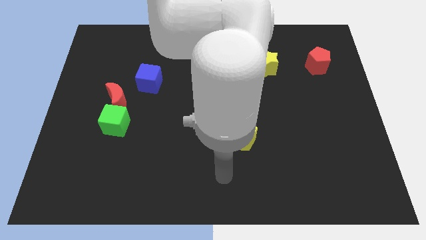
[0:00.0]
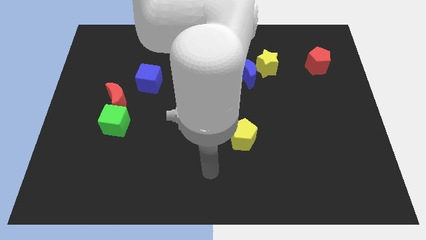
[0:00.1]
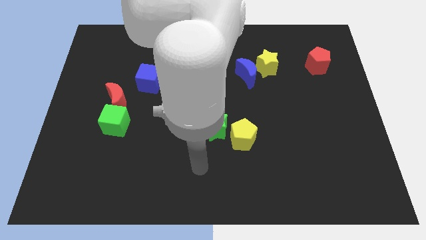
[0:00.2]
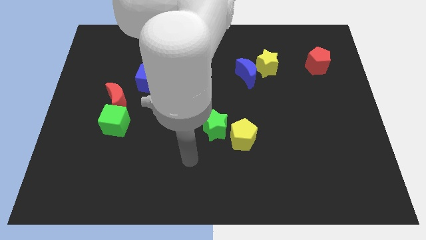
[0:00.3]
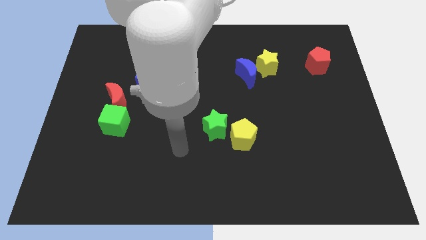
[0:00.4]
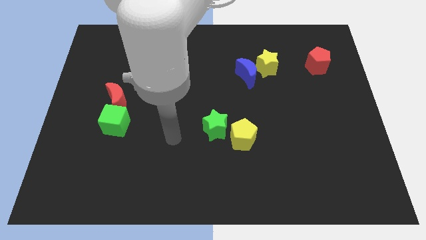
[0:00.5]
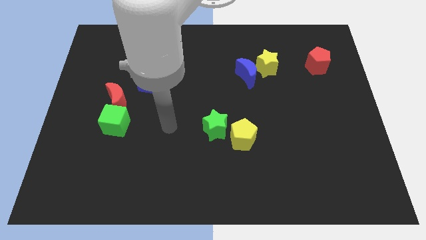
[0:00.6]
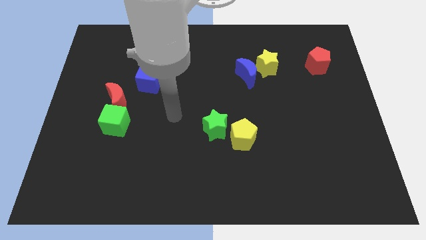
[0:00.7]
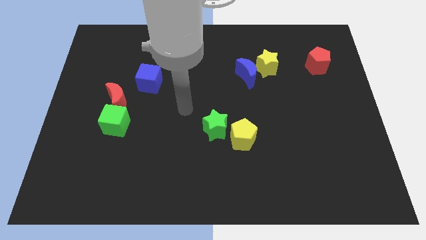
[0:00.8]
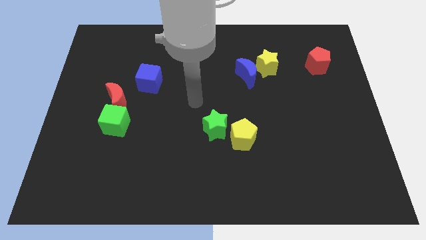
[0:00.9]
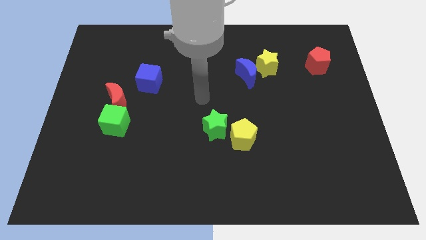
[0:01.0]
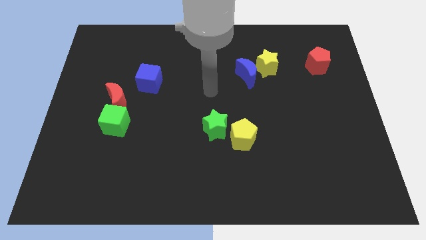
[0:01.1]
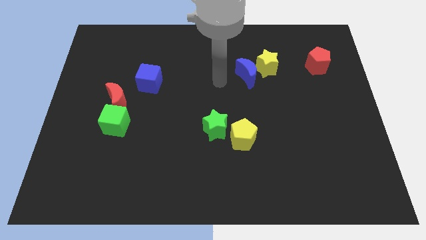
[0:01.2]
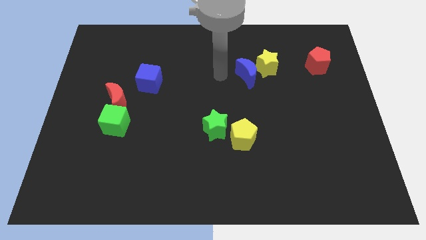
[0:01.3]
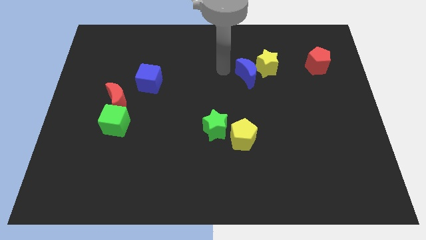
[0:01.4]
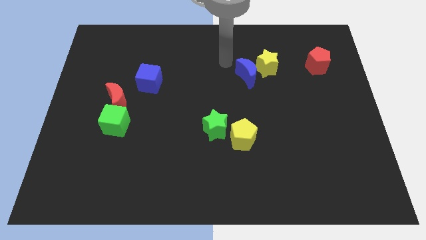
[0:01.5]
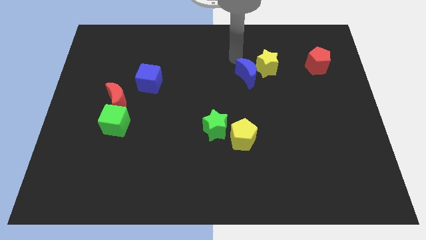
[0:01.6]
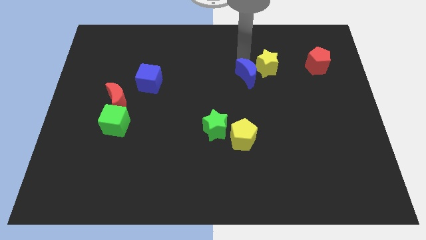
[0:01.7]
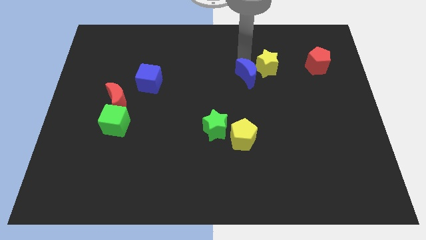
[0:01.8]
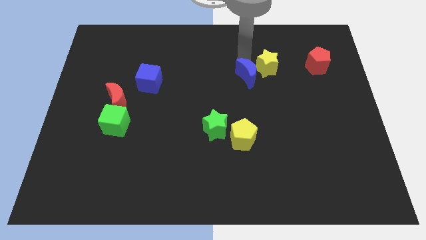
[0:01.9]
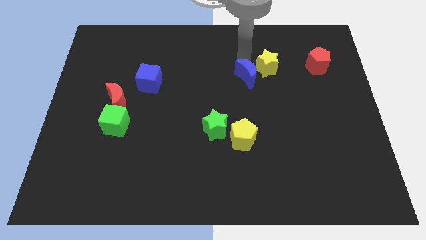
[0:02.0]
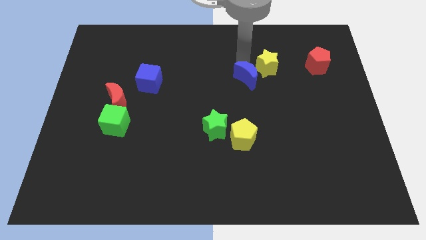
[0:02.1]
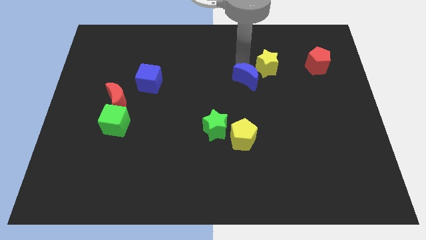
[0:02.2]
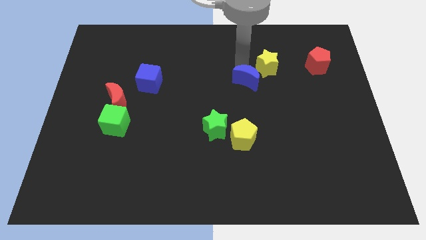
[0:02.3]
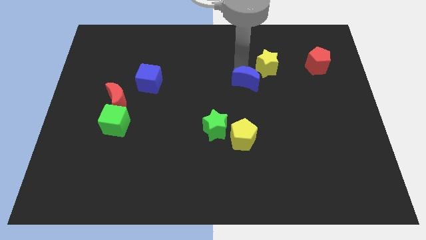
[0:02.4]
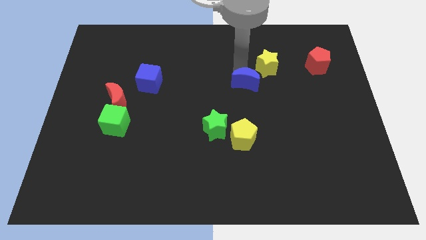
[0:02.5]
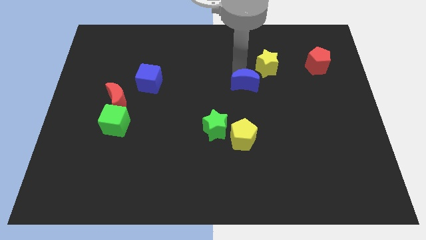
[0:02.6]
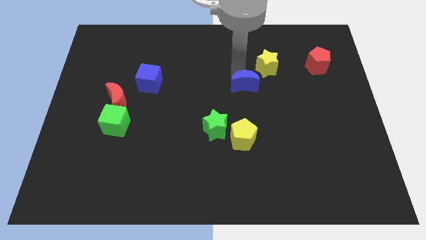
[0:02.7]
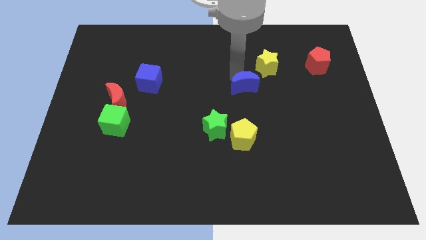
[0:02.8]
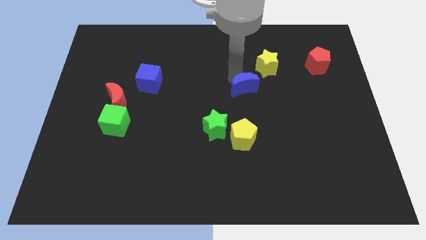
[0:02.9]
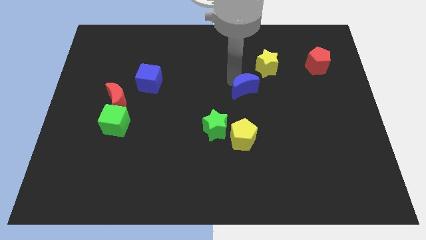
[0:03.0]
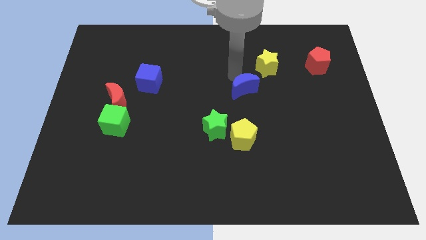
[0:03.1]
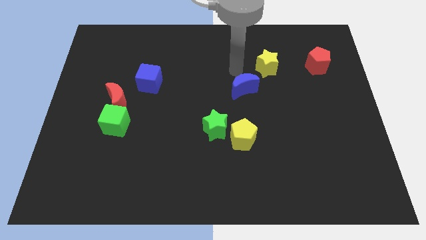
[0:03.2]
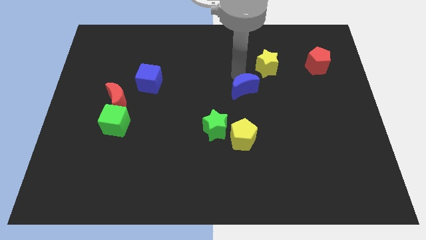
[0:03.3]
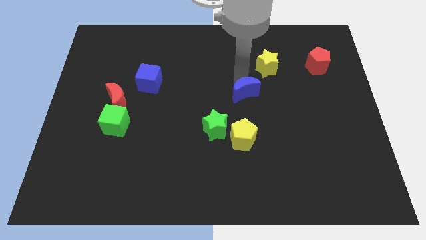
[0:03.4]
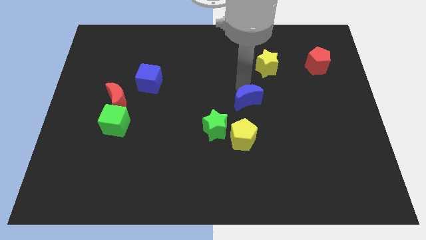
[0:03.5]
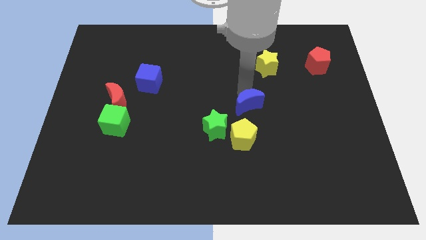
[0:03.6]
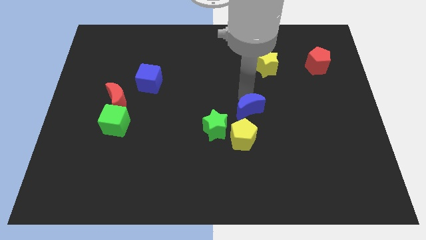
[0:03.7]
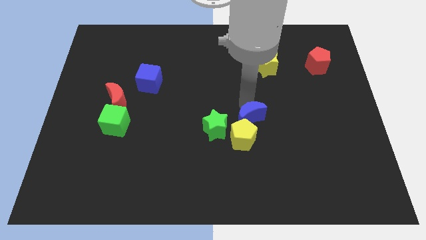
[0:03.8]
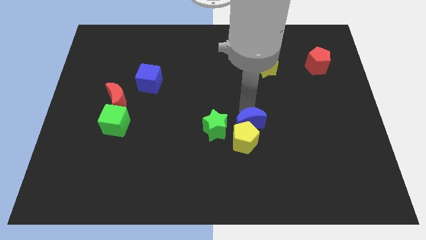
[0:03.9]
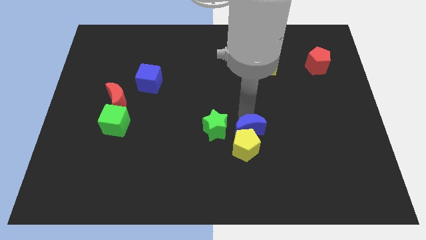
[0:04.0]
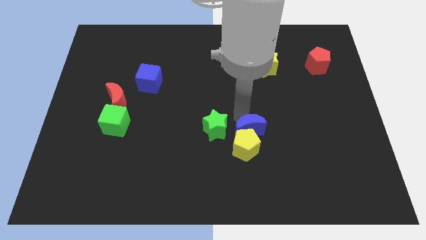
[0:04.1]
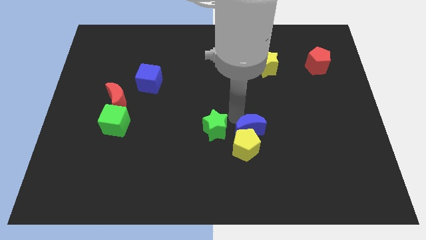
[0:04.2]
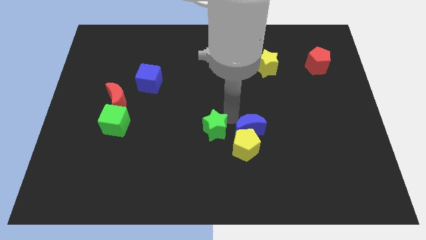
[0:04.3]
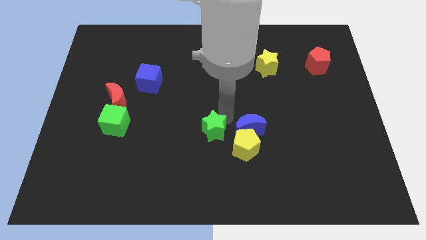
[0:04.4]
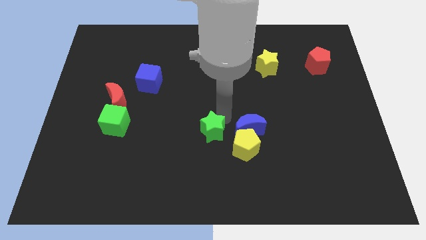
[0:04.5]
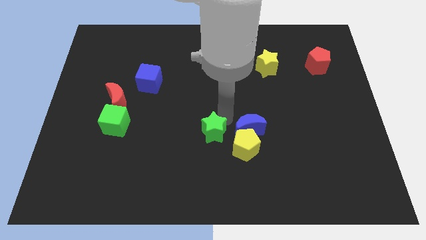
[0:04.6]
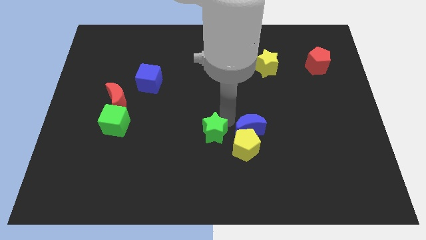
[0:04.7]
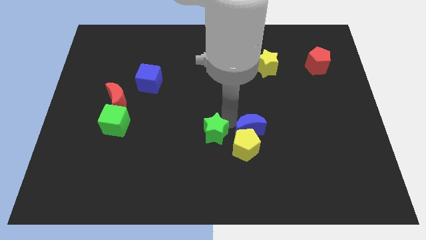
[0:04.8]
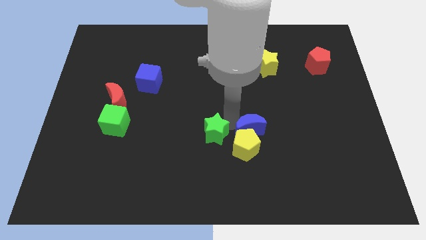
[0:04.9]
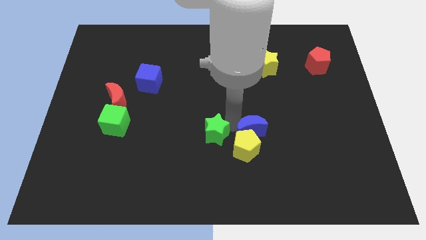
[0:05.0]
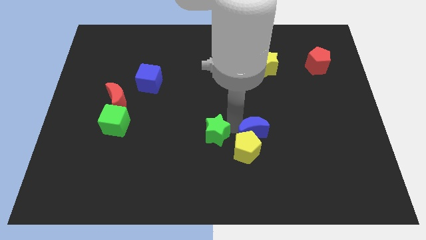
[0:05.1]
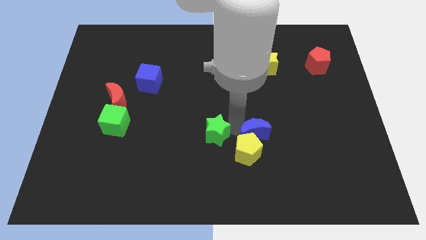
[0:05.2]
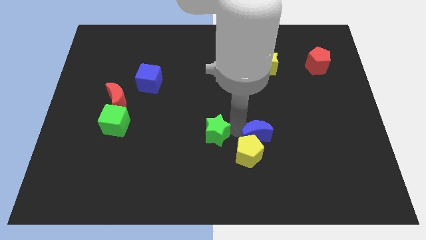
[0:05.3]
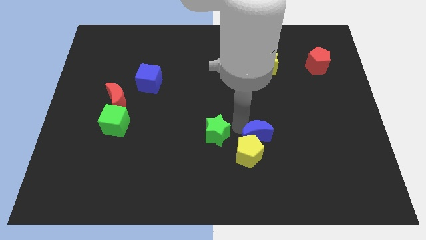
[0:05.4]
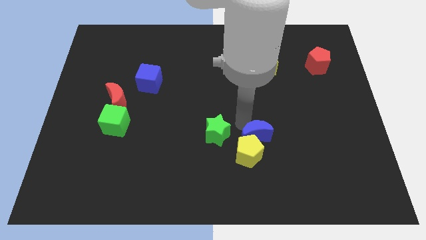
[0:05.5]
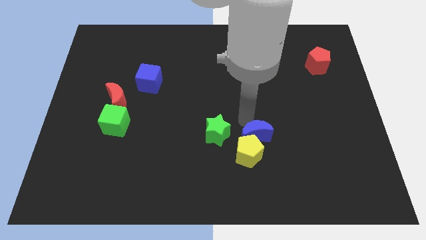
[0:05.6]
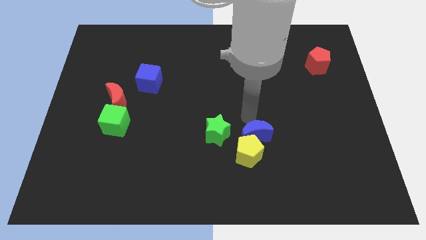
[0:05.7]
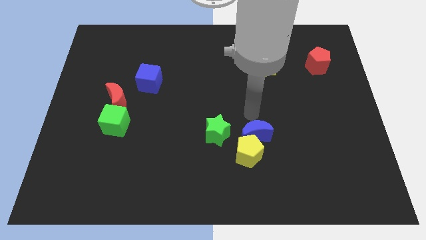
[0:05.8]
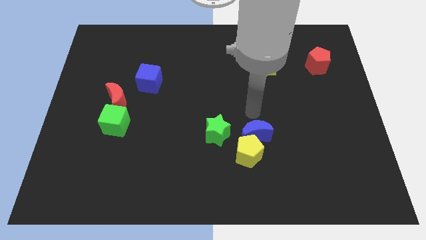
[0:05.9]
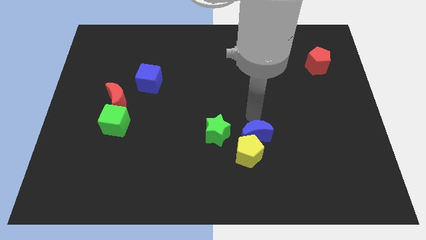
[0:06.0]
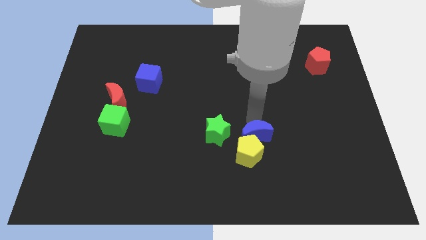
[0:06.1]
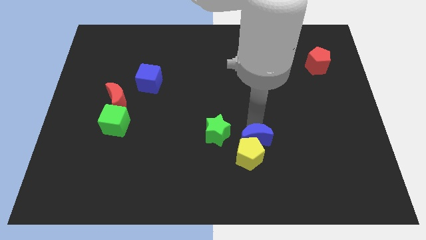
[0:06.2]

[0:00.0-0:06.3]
move the blue moon to the bottom right side of the green star

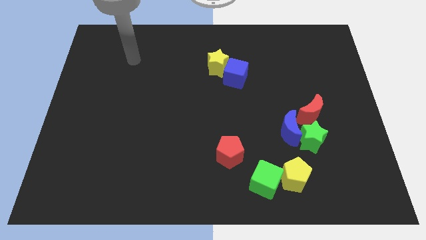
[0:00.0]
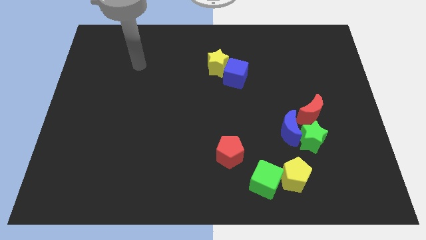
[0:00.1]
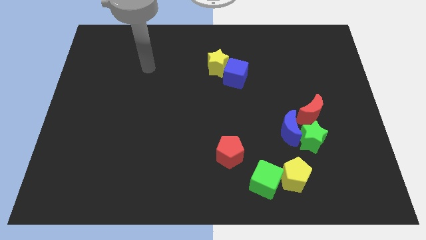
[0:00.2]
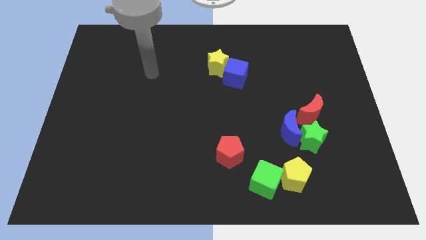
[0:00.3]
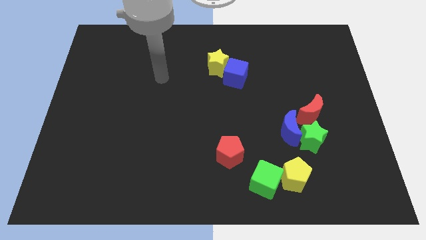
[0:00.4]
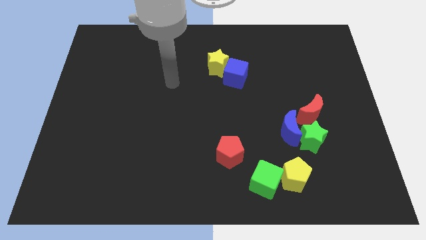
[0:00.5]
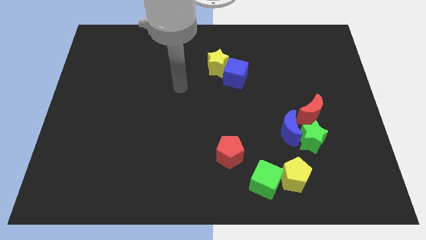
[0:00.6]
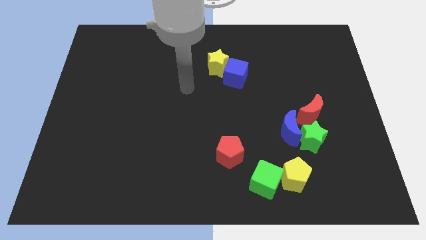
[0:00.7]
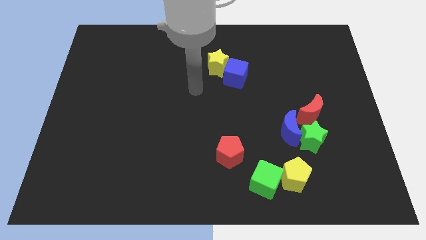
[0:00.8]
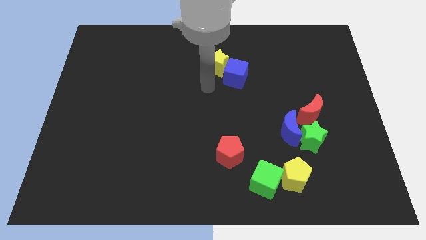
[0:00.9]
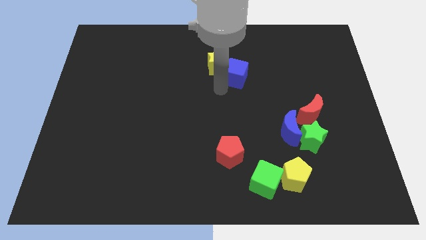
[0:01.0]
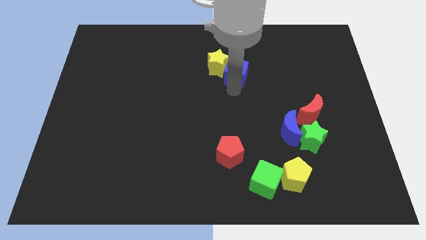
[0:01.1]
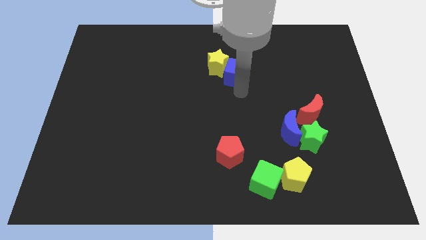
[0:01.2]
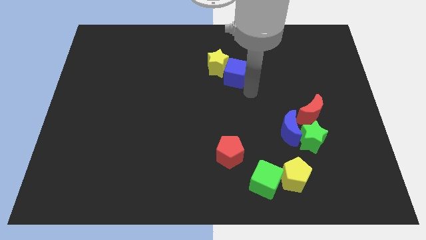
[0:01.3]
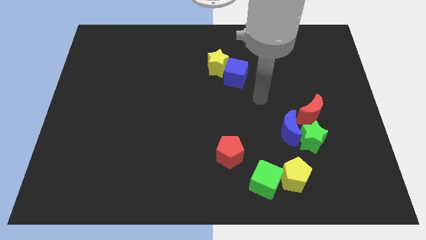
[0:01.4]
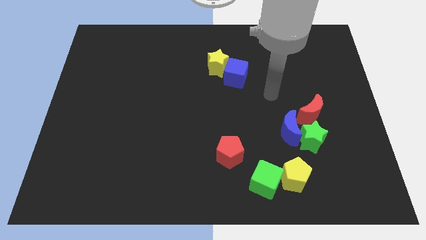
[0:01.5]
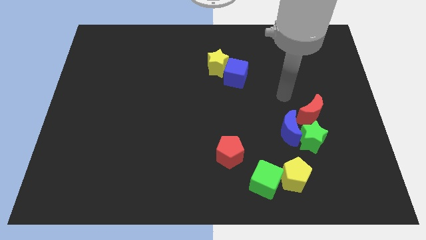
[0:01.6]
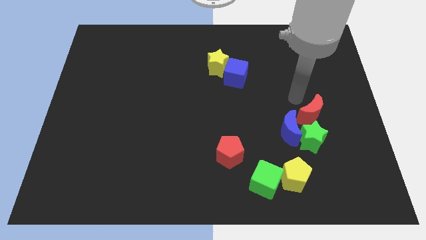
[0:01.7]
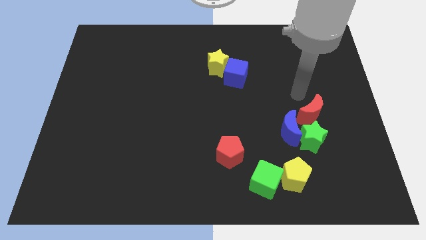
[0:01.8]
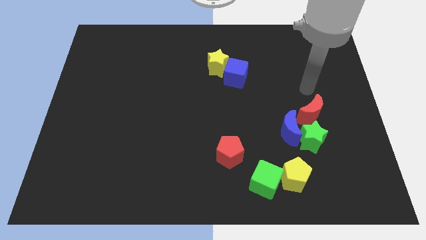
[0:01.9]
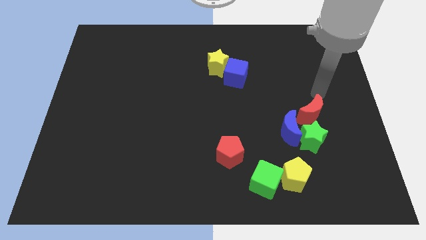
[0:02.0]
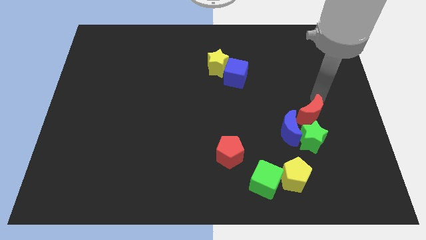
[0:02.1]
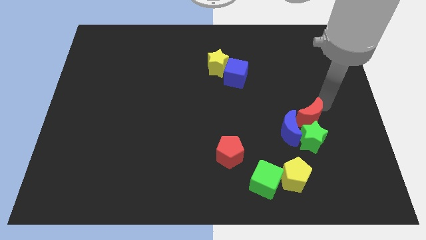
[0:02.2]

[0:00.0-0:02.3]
slide the red moon to the top left side of the green star
